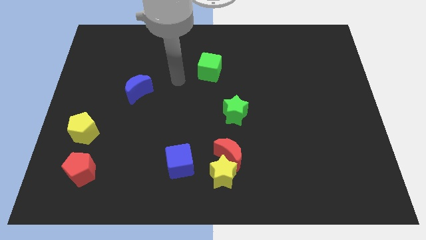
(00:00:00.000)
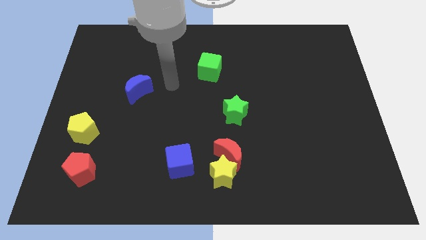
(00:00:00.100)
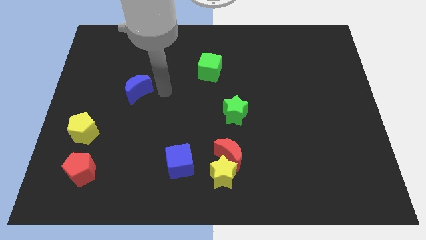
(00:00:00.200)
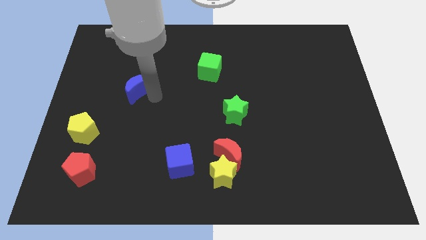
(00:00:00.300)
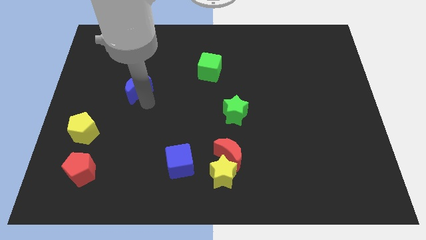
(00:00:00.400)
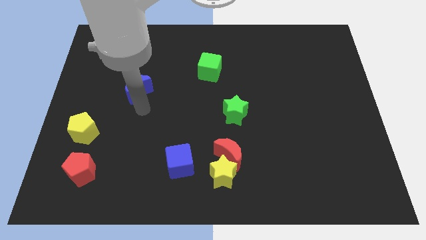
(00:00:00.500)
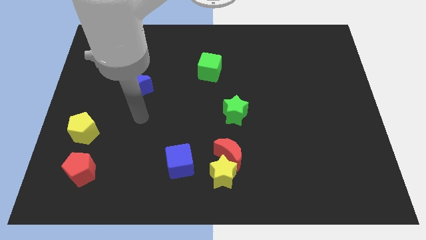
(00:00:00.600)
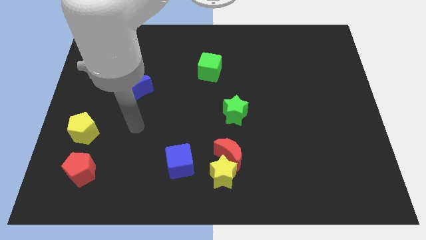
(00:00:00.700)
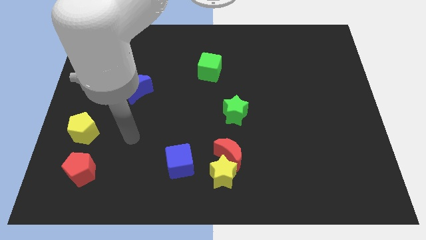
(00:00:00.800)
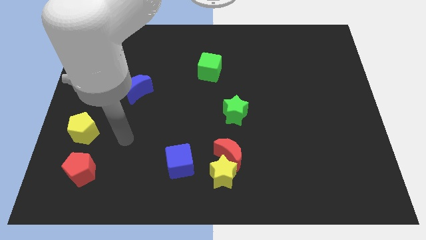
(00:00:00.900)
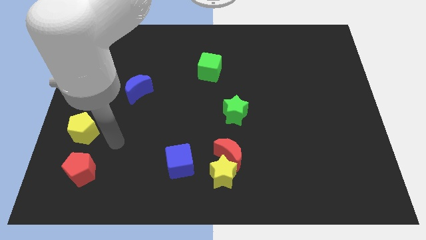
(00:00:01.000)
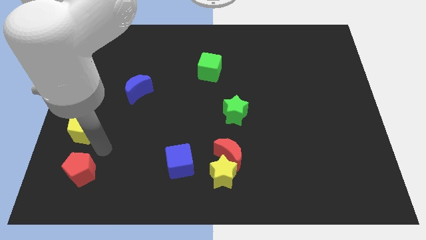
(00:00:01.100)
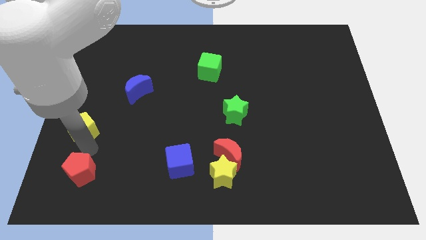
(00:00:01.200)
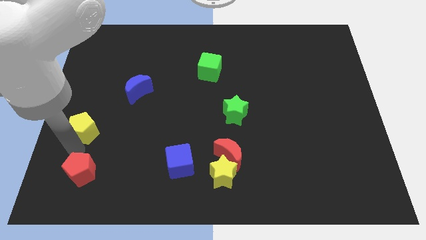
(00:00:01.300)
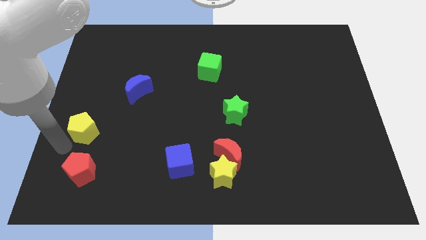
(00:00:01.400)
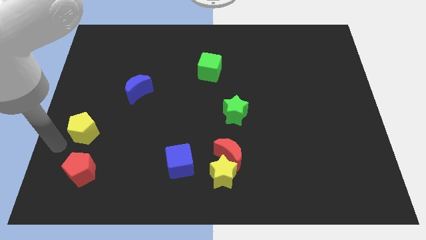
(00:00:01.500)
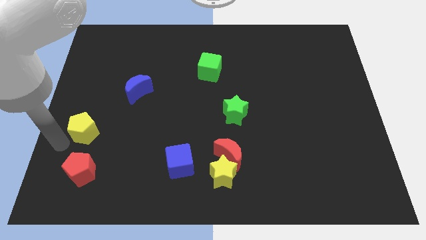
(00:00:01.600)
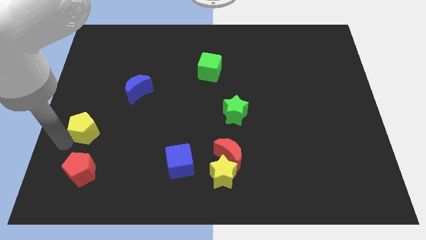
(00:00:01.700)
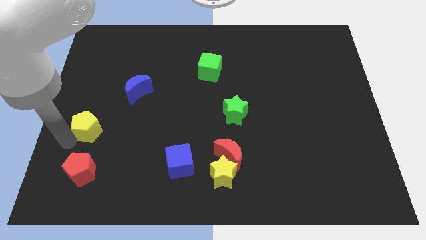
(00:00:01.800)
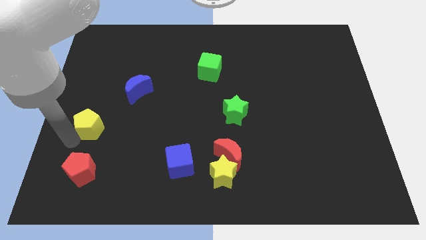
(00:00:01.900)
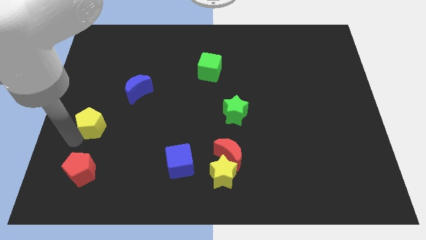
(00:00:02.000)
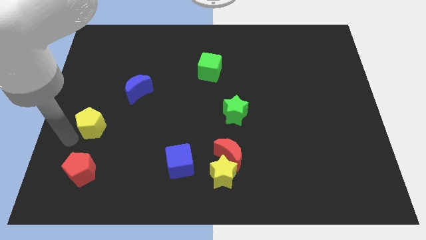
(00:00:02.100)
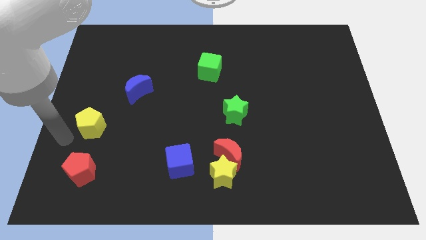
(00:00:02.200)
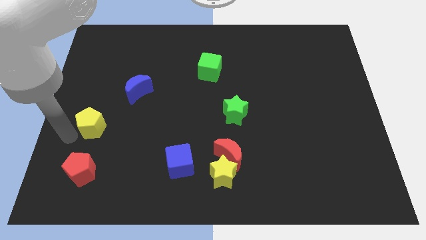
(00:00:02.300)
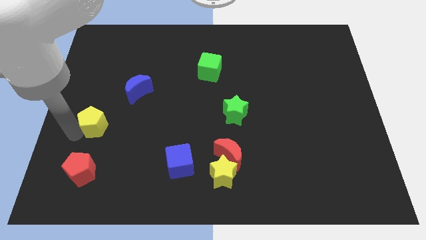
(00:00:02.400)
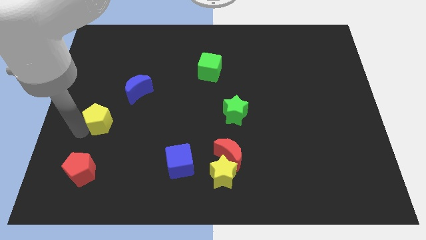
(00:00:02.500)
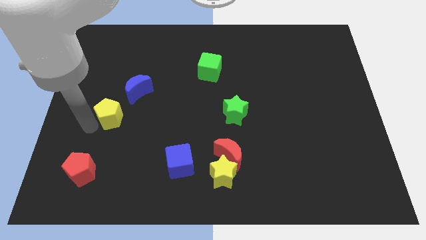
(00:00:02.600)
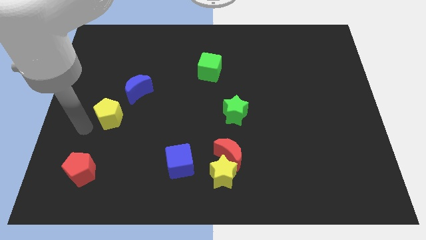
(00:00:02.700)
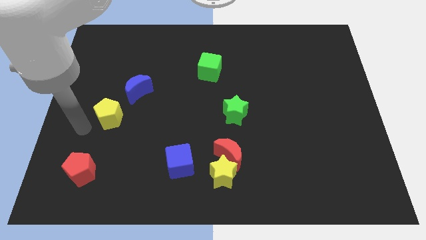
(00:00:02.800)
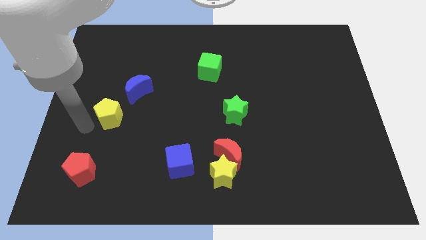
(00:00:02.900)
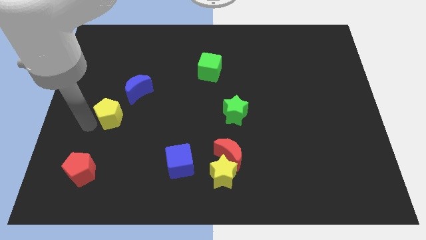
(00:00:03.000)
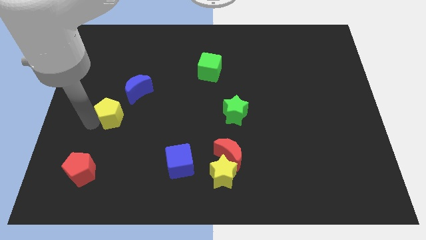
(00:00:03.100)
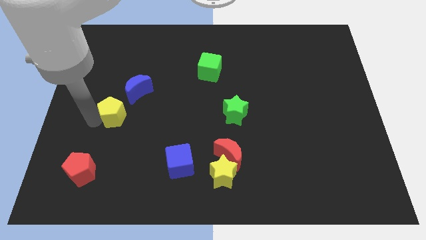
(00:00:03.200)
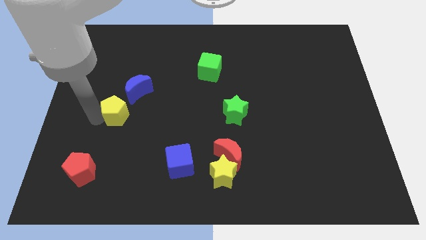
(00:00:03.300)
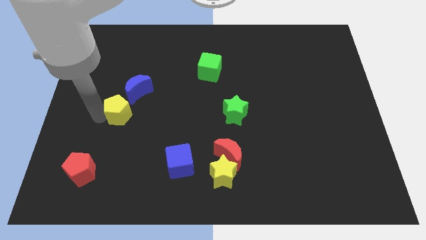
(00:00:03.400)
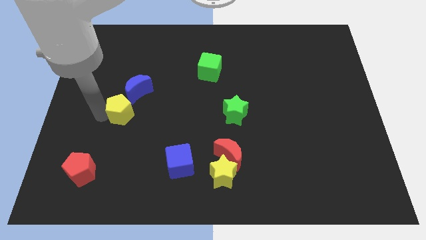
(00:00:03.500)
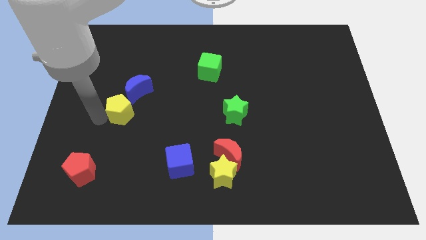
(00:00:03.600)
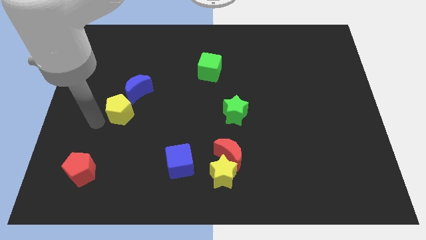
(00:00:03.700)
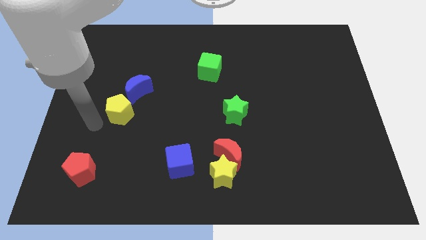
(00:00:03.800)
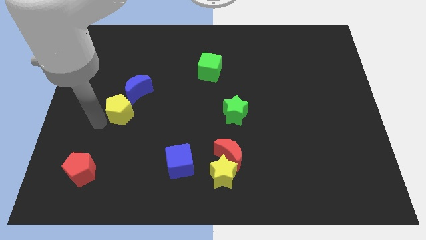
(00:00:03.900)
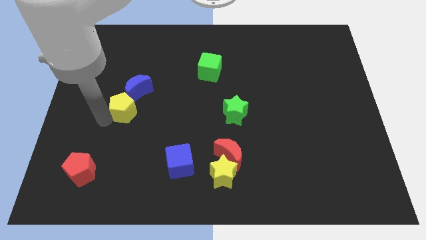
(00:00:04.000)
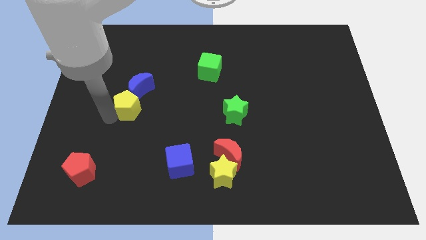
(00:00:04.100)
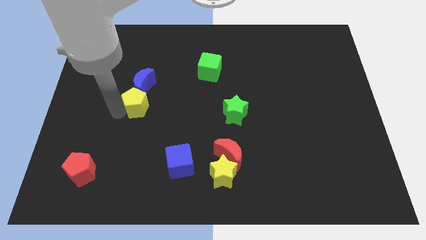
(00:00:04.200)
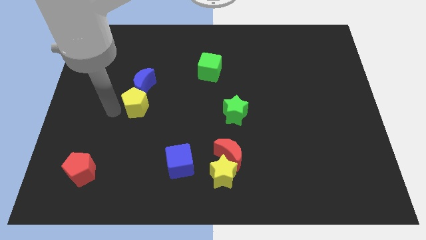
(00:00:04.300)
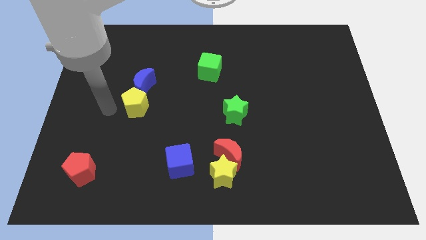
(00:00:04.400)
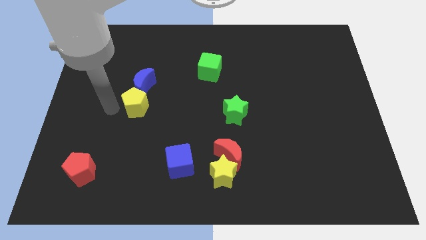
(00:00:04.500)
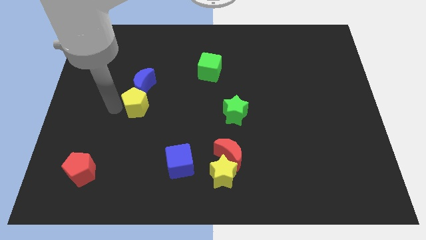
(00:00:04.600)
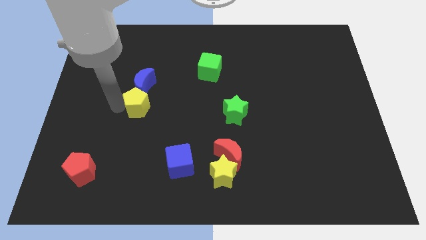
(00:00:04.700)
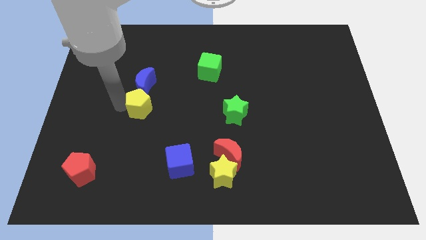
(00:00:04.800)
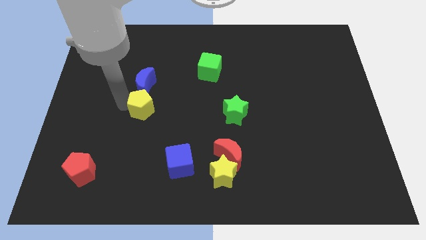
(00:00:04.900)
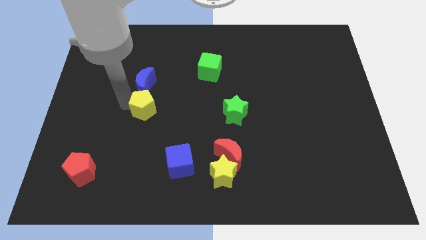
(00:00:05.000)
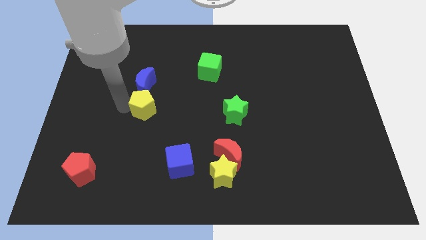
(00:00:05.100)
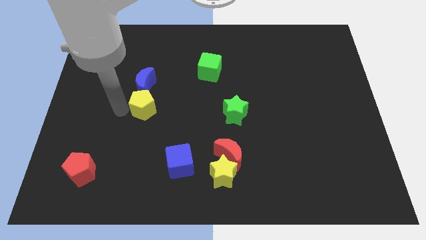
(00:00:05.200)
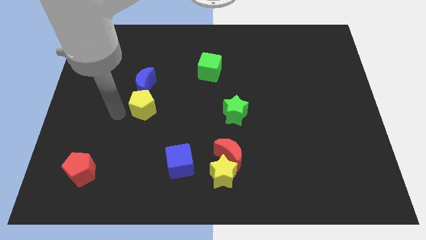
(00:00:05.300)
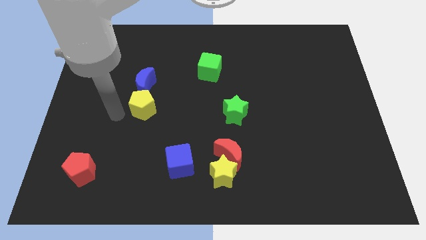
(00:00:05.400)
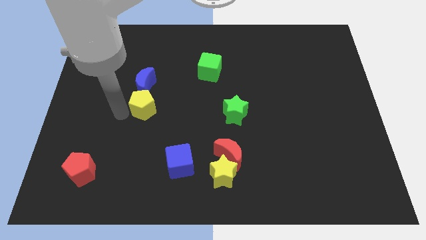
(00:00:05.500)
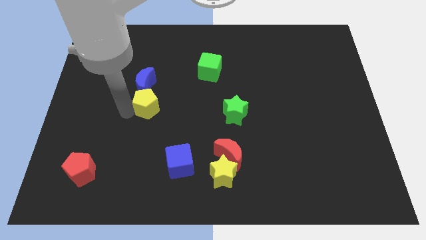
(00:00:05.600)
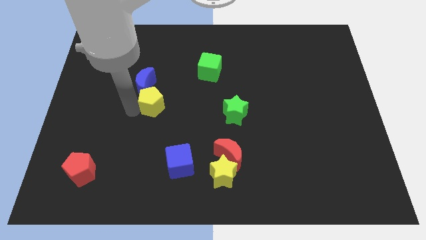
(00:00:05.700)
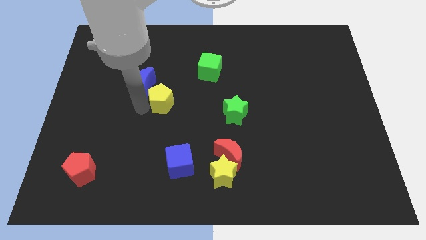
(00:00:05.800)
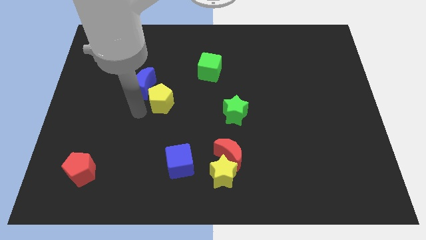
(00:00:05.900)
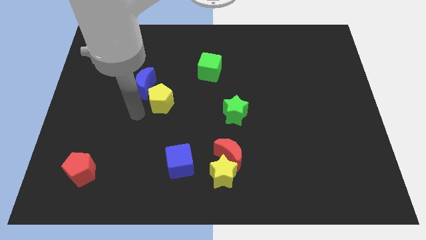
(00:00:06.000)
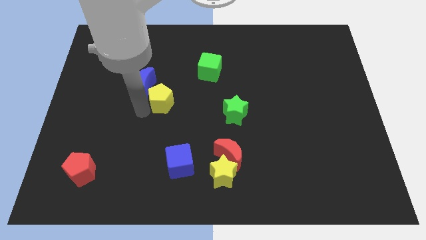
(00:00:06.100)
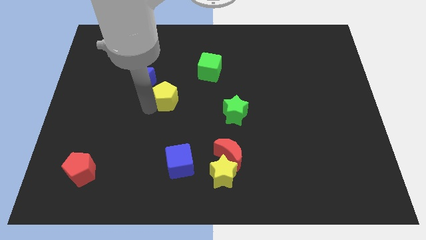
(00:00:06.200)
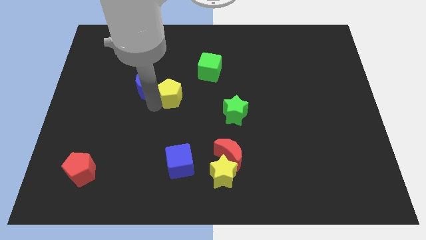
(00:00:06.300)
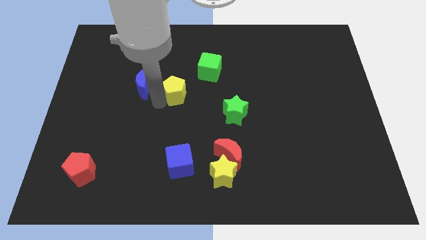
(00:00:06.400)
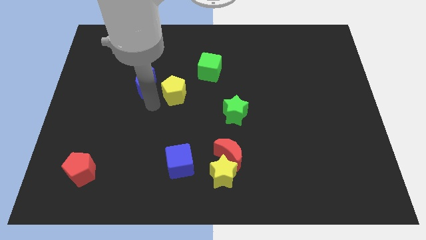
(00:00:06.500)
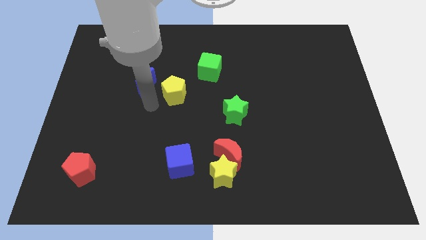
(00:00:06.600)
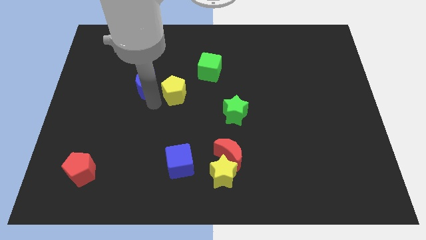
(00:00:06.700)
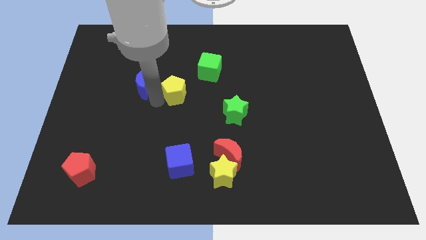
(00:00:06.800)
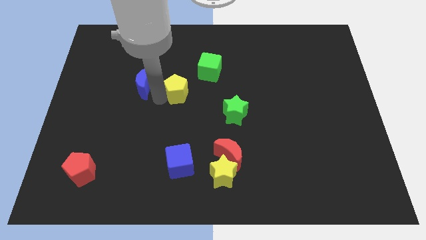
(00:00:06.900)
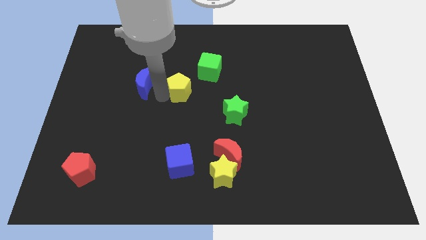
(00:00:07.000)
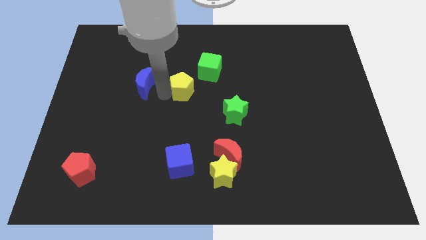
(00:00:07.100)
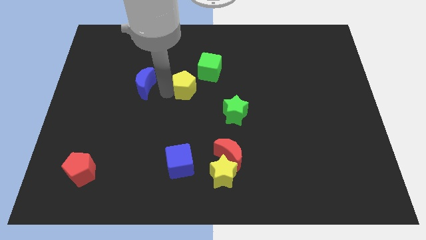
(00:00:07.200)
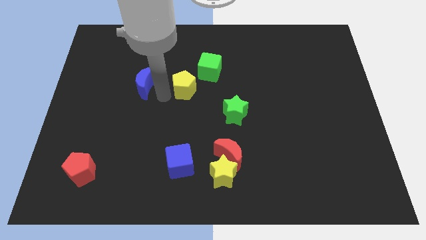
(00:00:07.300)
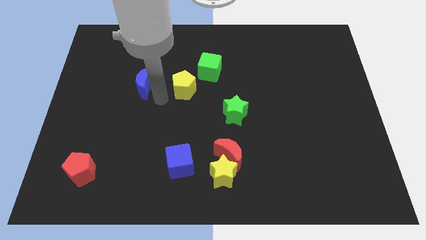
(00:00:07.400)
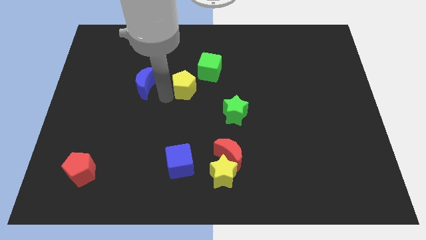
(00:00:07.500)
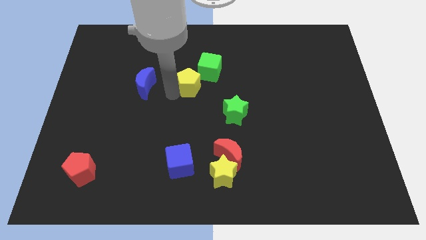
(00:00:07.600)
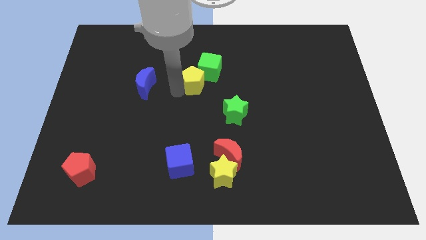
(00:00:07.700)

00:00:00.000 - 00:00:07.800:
put the yellow pentagon next to the green cube
